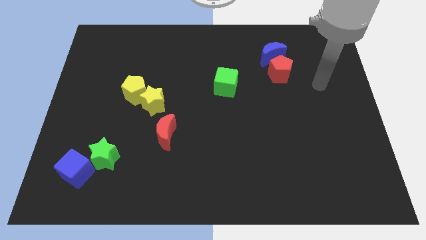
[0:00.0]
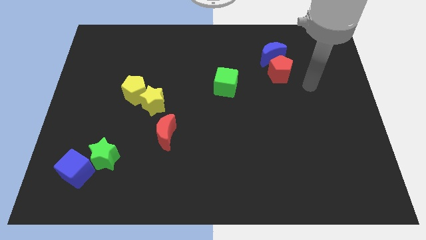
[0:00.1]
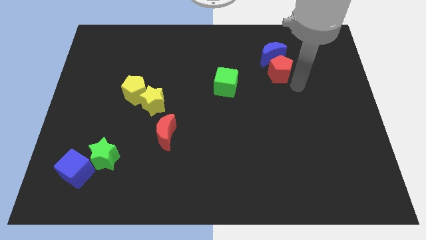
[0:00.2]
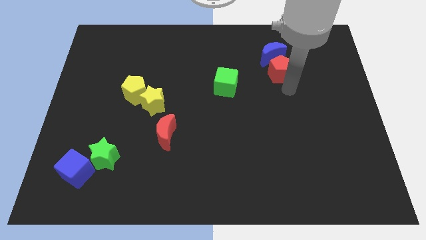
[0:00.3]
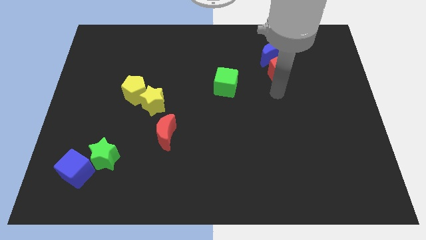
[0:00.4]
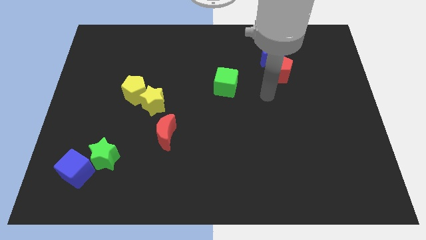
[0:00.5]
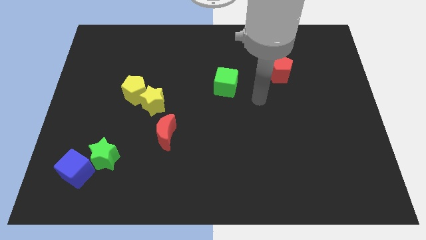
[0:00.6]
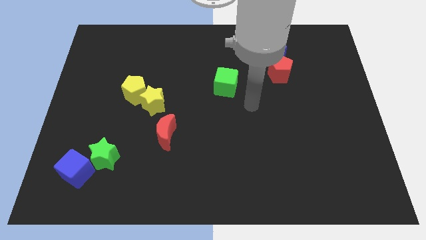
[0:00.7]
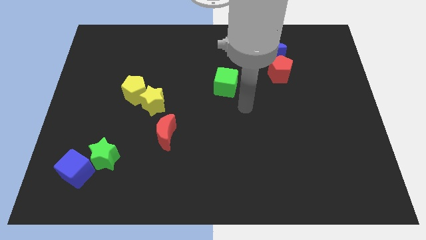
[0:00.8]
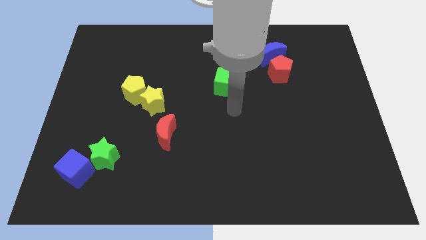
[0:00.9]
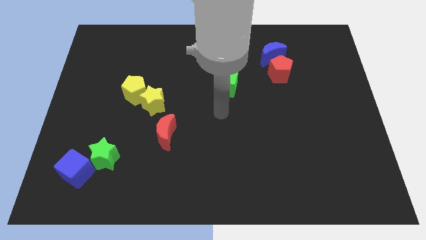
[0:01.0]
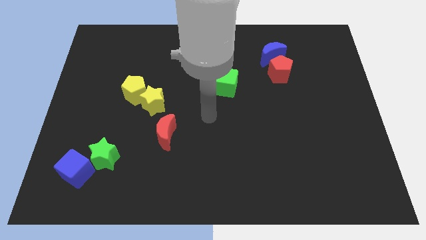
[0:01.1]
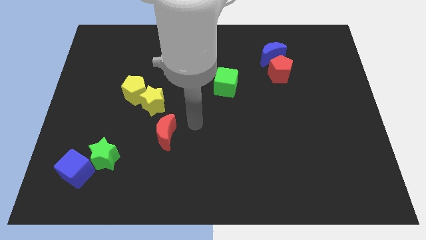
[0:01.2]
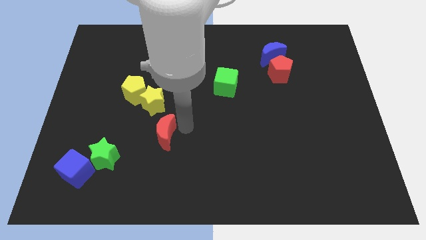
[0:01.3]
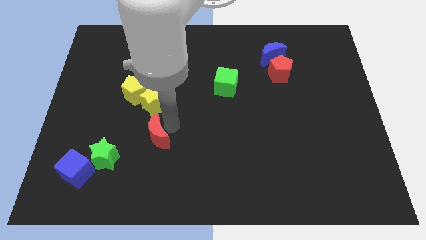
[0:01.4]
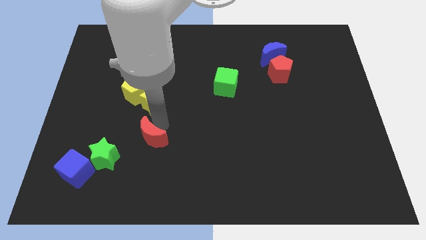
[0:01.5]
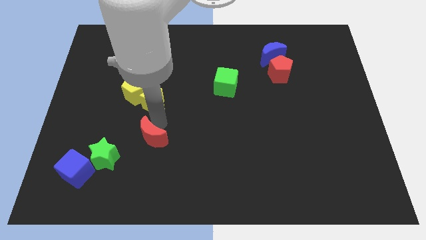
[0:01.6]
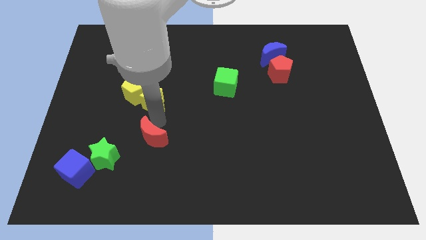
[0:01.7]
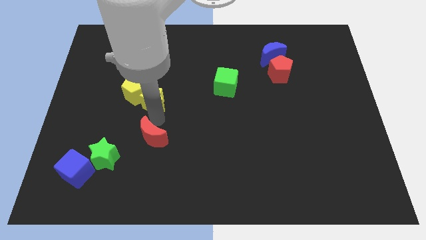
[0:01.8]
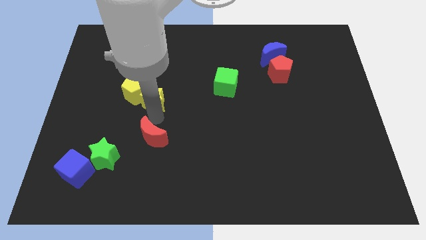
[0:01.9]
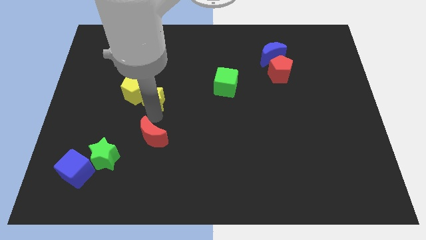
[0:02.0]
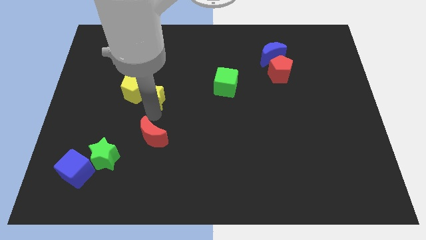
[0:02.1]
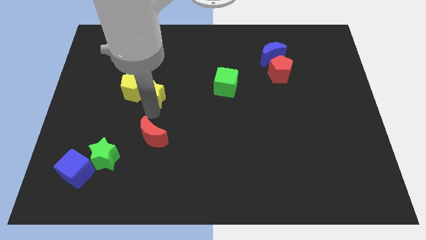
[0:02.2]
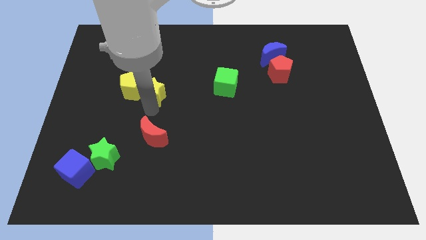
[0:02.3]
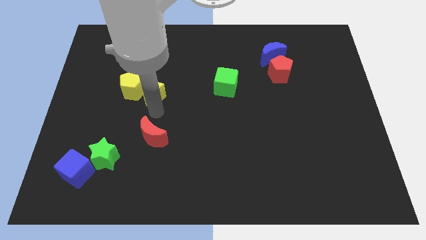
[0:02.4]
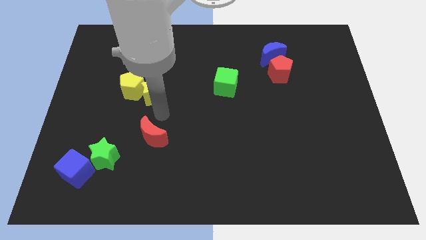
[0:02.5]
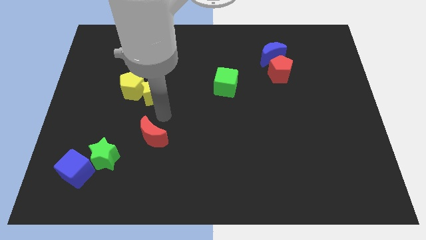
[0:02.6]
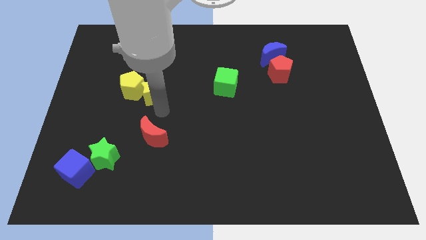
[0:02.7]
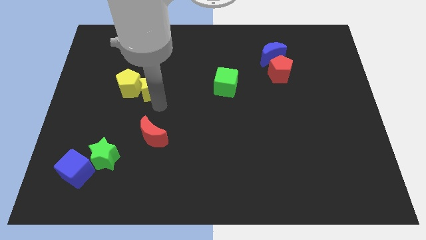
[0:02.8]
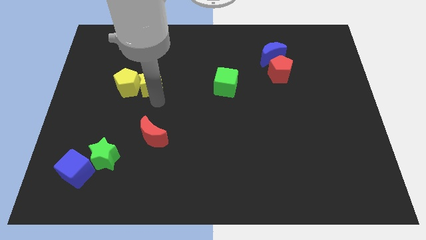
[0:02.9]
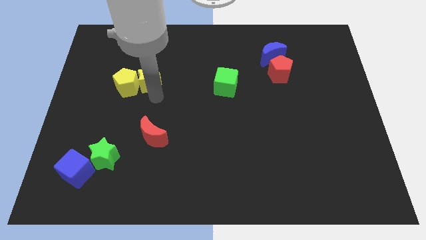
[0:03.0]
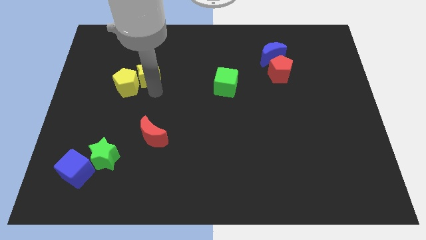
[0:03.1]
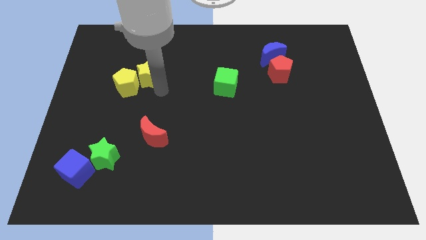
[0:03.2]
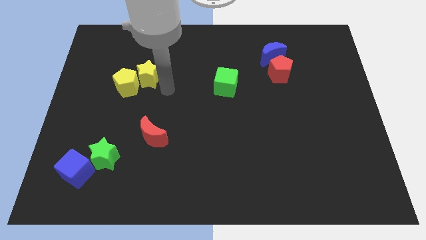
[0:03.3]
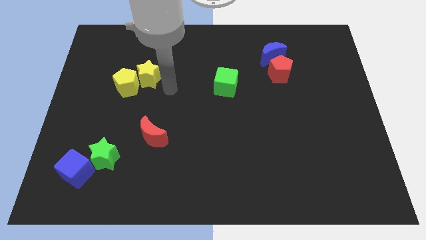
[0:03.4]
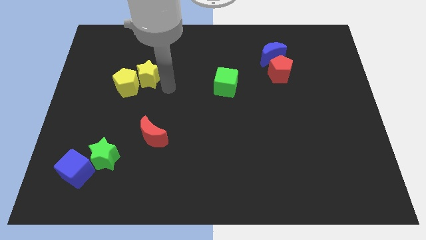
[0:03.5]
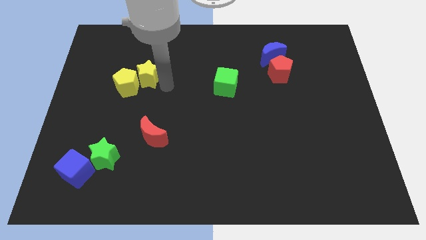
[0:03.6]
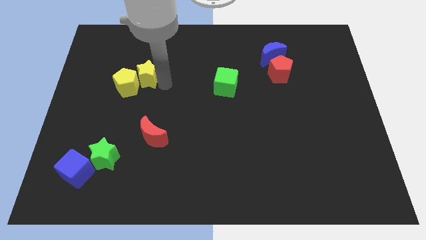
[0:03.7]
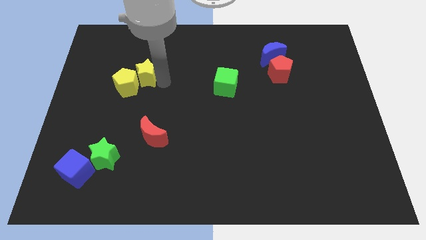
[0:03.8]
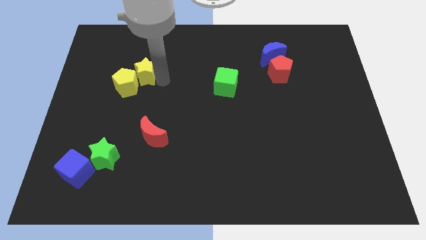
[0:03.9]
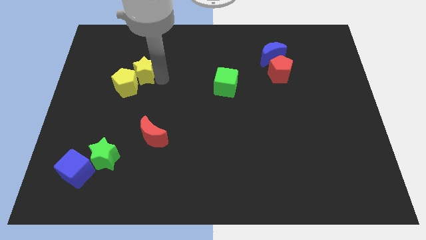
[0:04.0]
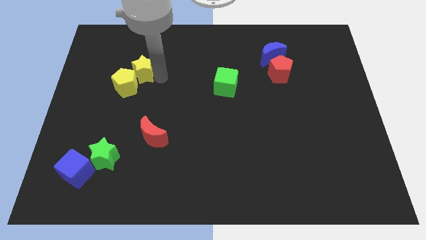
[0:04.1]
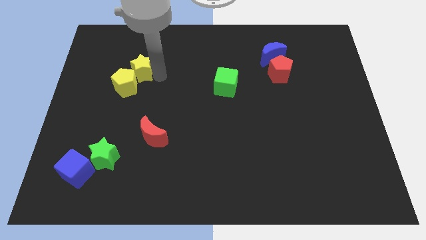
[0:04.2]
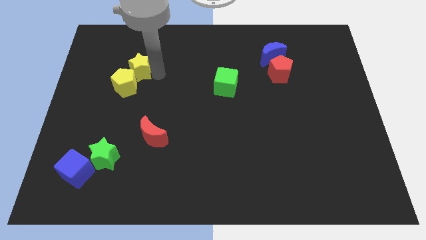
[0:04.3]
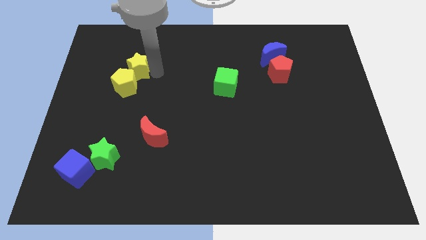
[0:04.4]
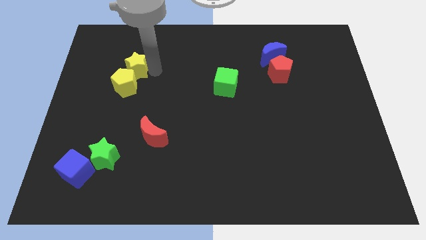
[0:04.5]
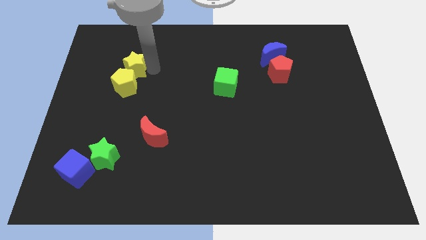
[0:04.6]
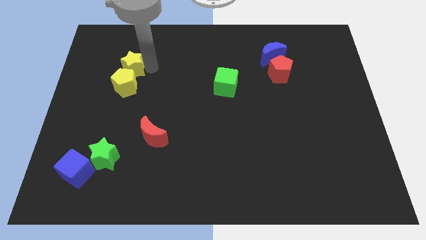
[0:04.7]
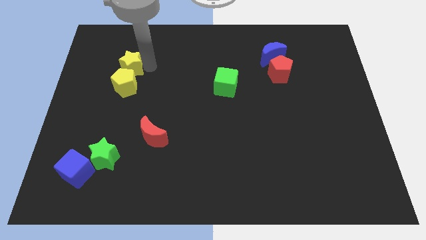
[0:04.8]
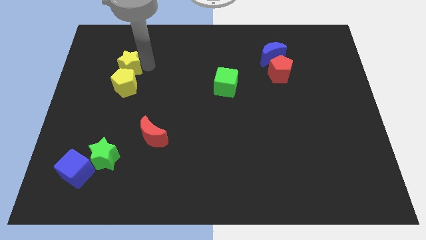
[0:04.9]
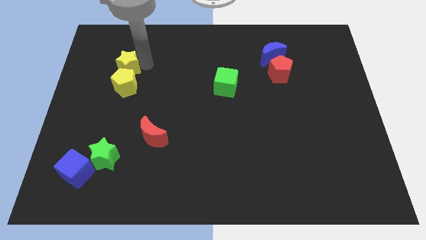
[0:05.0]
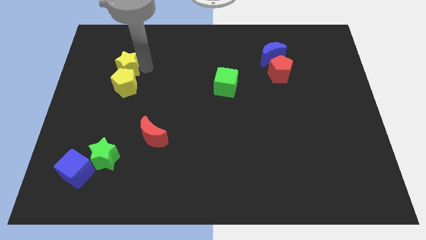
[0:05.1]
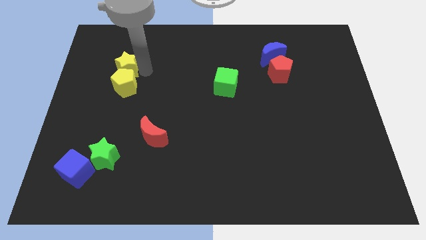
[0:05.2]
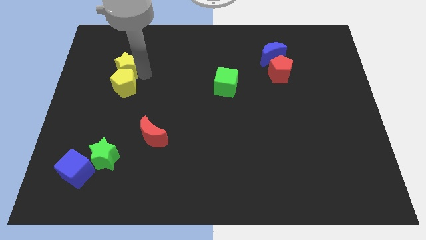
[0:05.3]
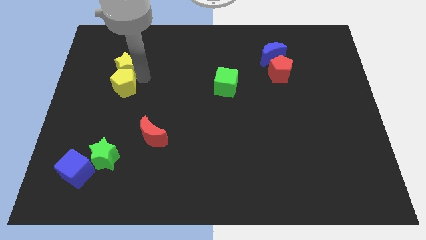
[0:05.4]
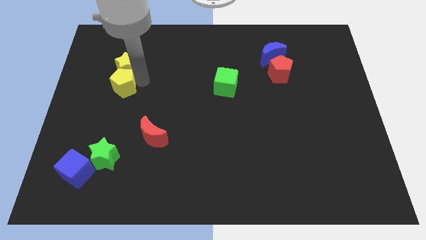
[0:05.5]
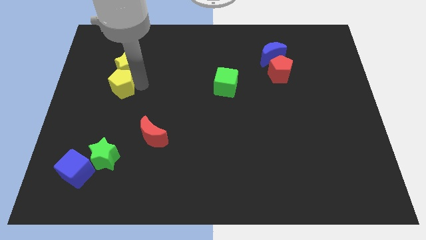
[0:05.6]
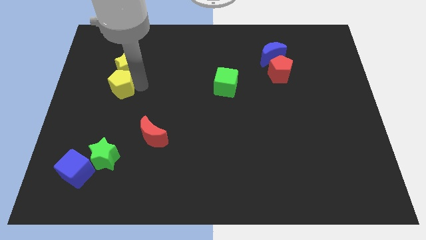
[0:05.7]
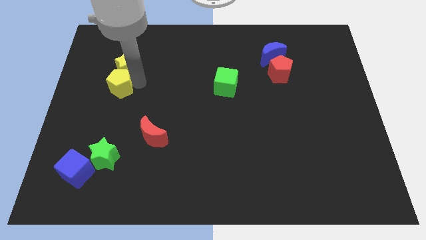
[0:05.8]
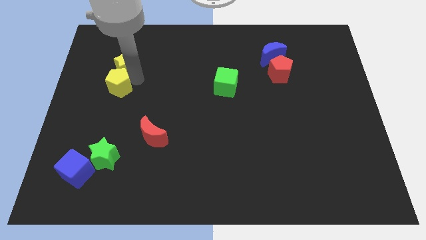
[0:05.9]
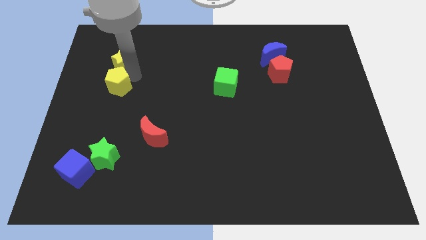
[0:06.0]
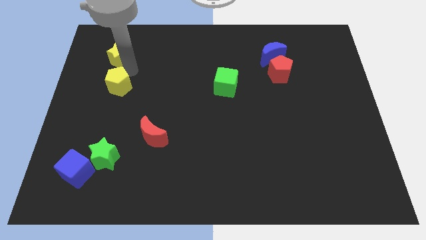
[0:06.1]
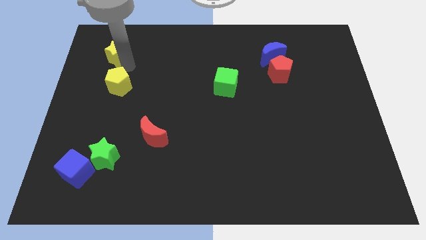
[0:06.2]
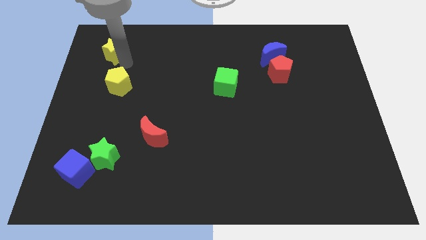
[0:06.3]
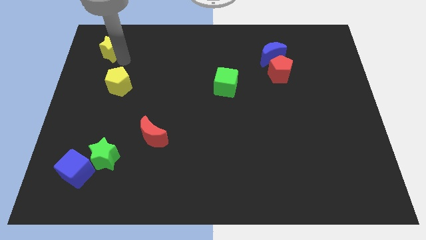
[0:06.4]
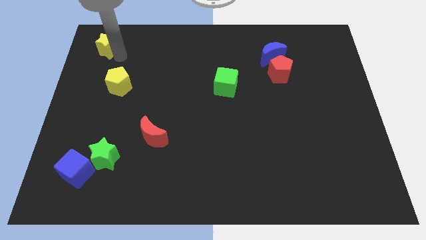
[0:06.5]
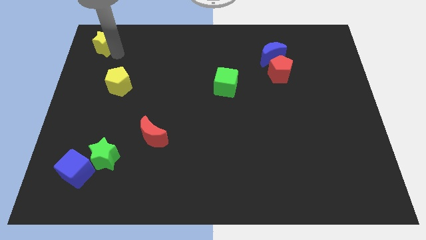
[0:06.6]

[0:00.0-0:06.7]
move the yellow star to the top left

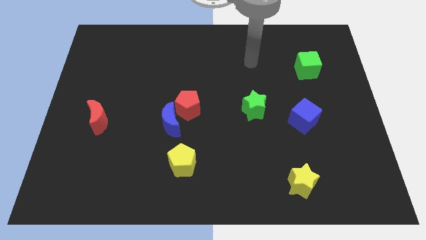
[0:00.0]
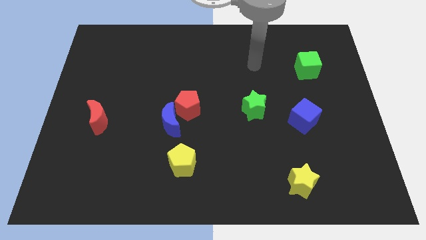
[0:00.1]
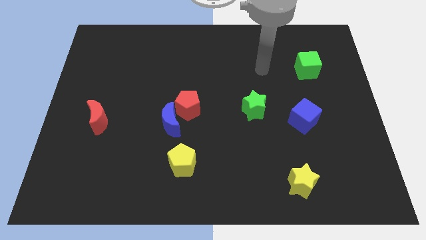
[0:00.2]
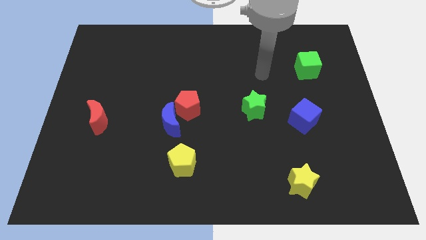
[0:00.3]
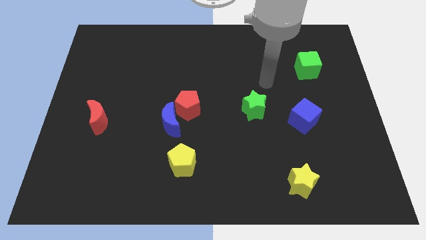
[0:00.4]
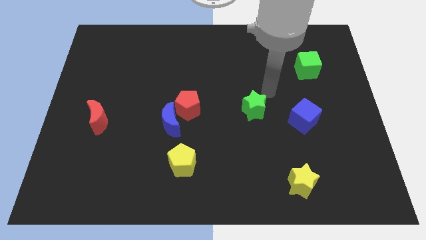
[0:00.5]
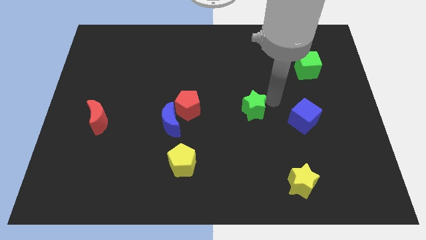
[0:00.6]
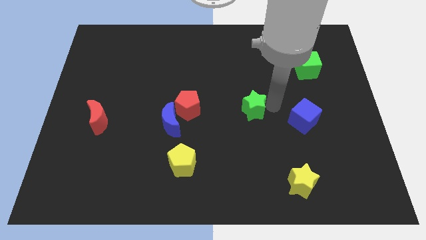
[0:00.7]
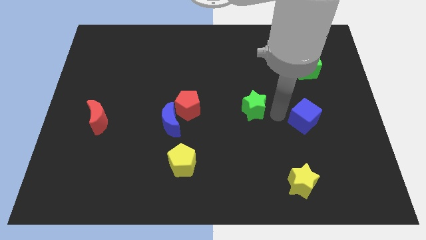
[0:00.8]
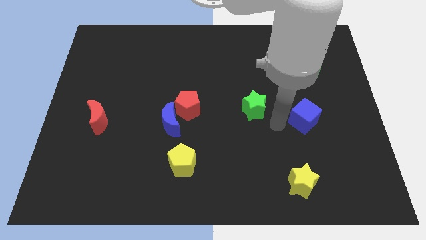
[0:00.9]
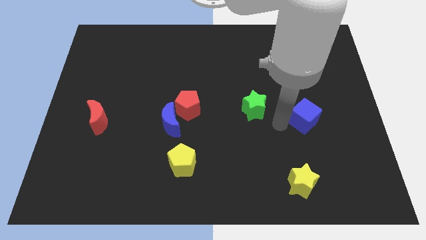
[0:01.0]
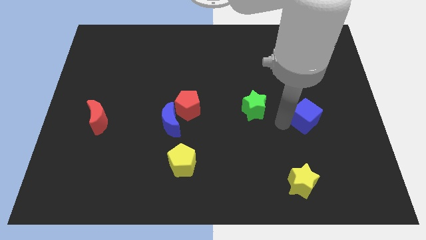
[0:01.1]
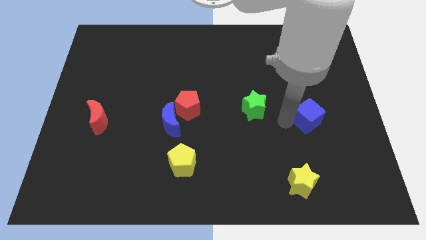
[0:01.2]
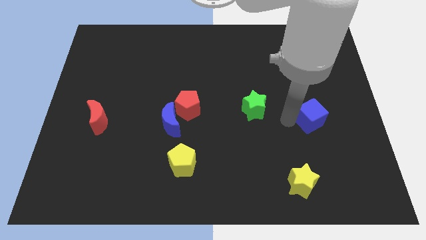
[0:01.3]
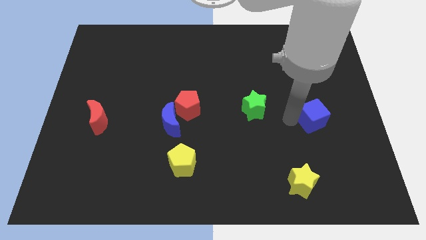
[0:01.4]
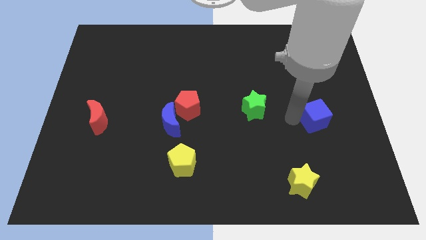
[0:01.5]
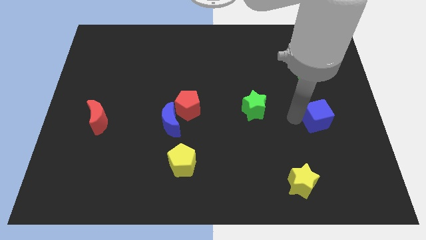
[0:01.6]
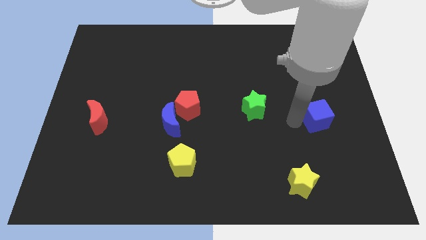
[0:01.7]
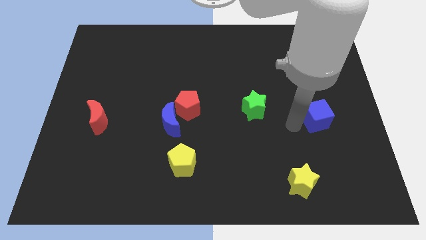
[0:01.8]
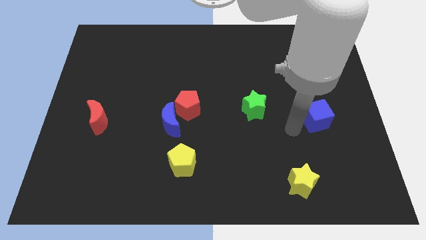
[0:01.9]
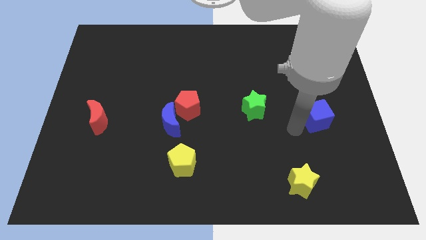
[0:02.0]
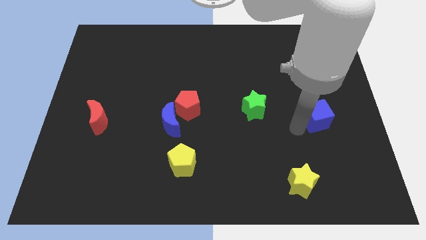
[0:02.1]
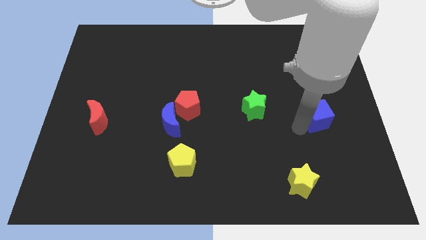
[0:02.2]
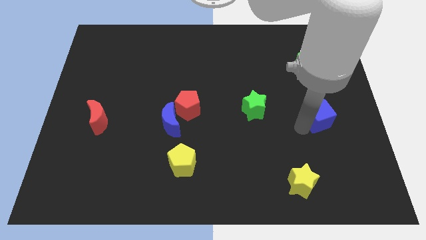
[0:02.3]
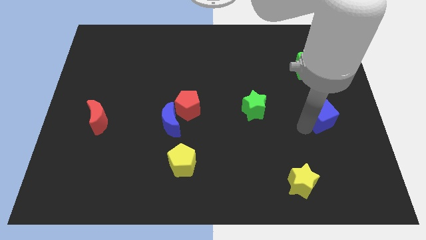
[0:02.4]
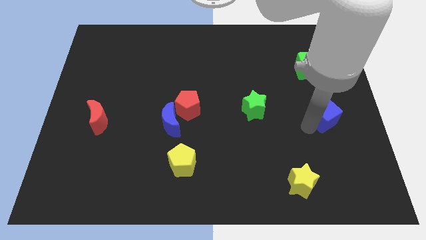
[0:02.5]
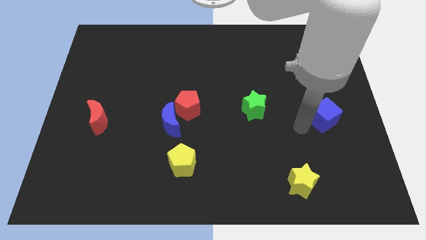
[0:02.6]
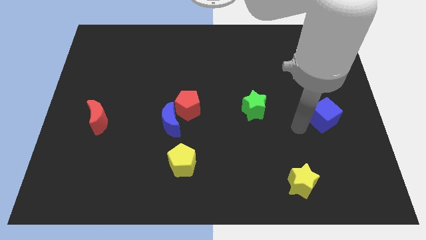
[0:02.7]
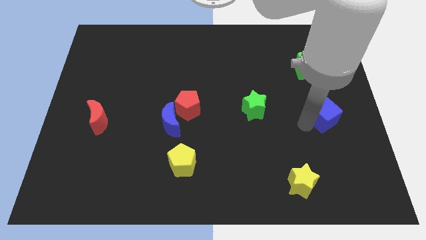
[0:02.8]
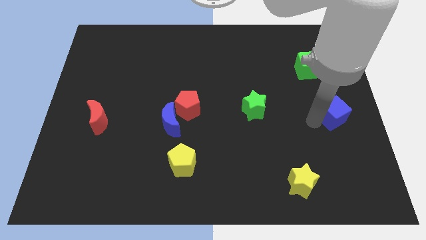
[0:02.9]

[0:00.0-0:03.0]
put the blue cube to the right side
